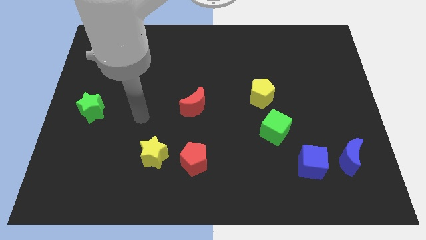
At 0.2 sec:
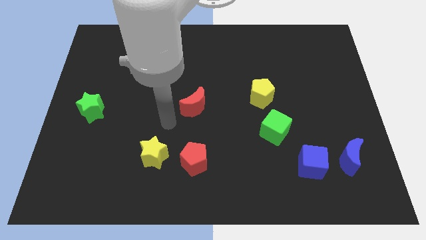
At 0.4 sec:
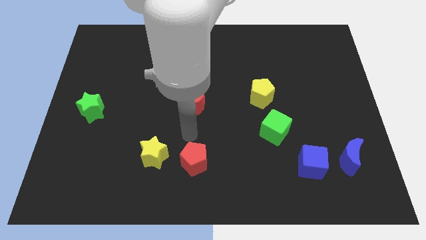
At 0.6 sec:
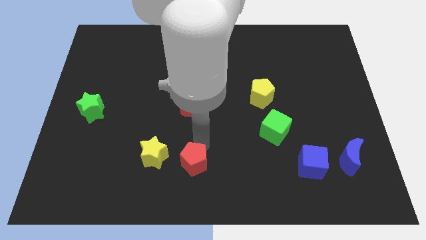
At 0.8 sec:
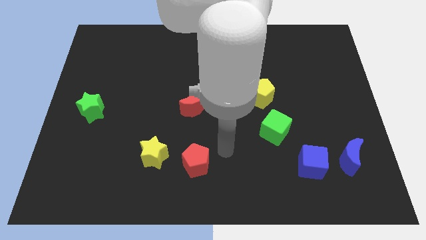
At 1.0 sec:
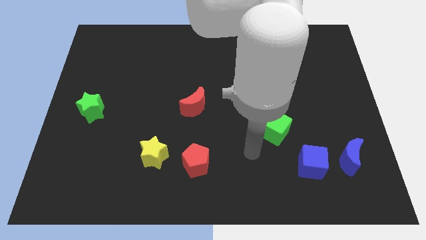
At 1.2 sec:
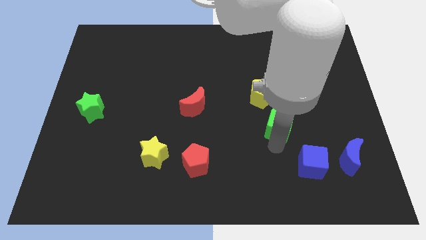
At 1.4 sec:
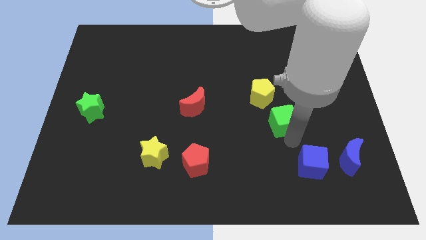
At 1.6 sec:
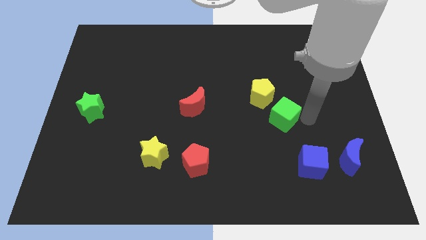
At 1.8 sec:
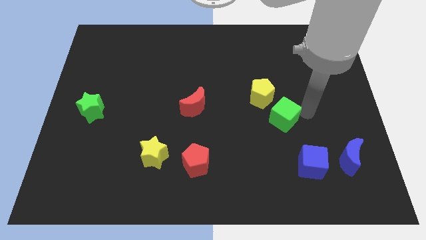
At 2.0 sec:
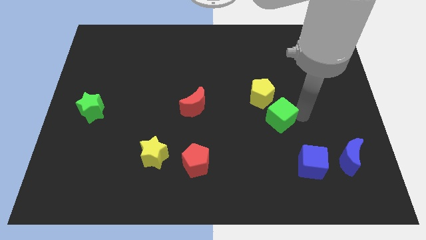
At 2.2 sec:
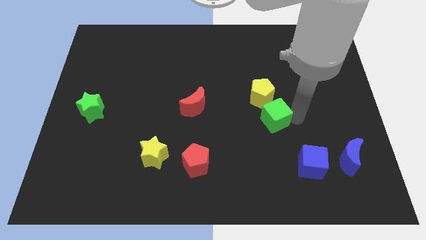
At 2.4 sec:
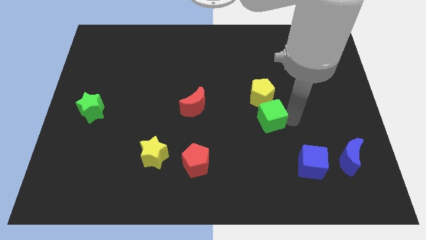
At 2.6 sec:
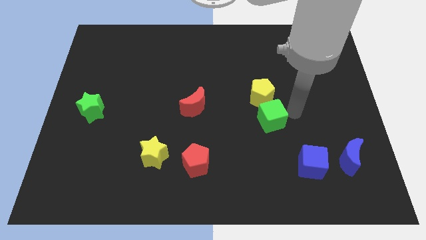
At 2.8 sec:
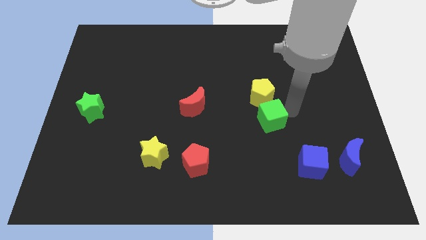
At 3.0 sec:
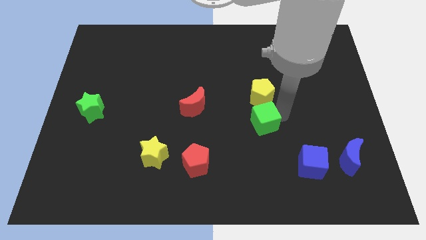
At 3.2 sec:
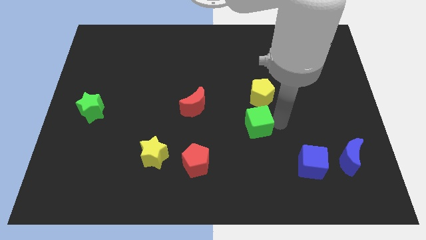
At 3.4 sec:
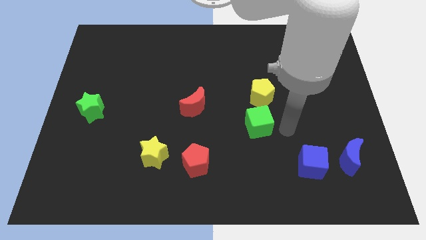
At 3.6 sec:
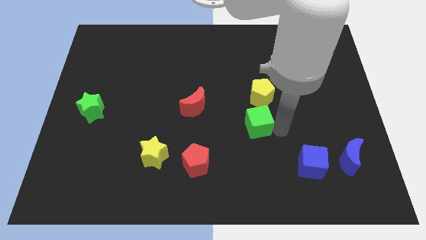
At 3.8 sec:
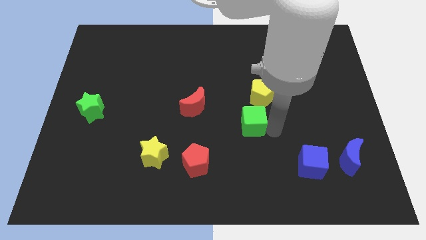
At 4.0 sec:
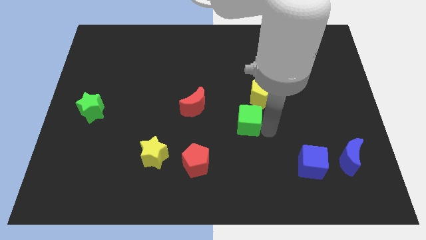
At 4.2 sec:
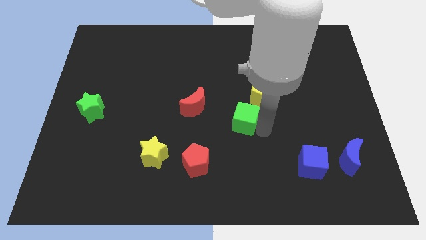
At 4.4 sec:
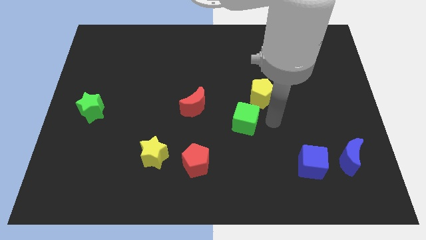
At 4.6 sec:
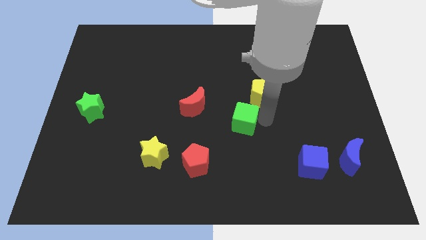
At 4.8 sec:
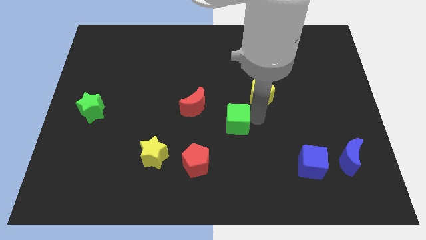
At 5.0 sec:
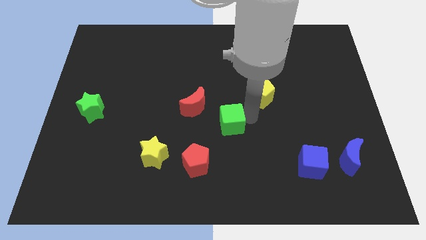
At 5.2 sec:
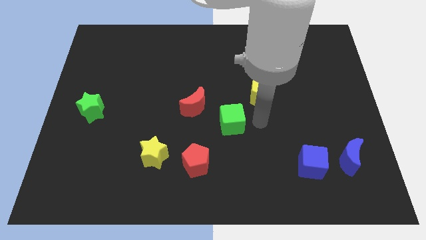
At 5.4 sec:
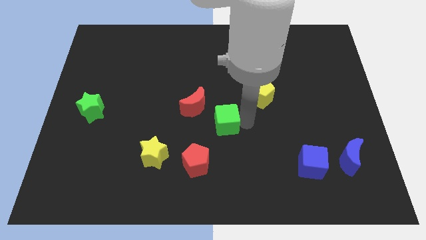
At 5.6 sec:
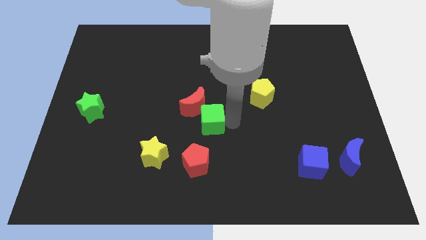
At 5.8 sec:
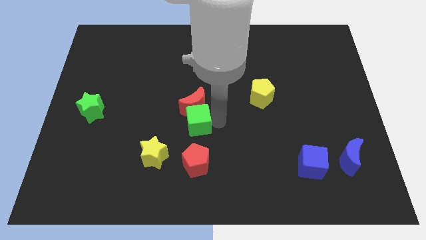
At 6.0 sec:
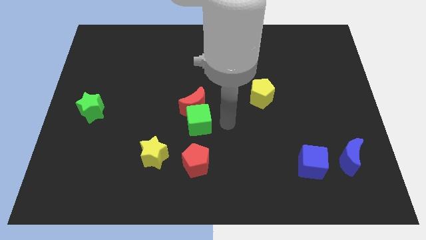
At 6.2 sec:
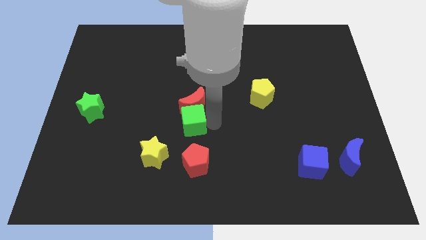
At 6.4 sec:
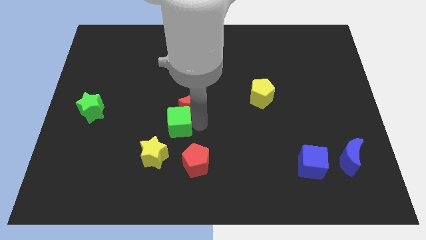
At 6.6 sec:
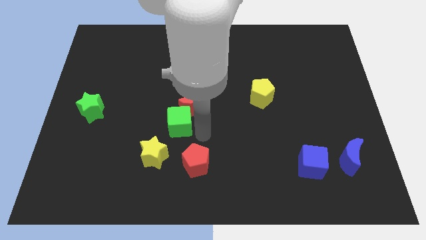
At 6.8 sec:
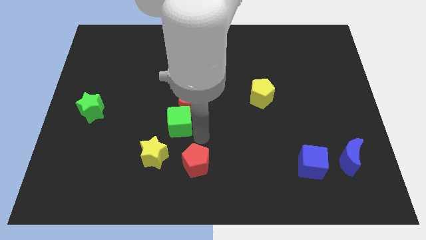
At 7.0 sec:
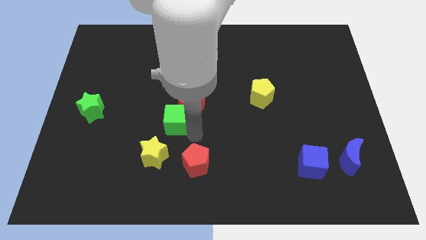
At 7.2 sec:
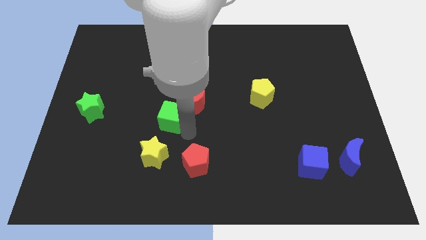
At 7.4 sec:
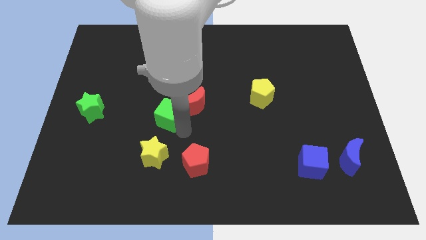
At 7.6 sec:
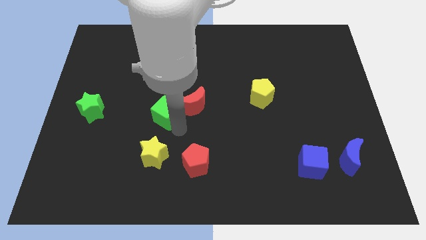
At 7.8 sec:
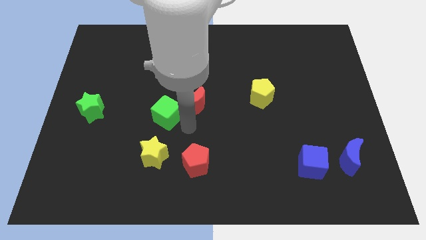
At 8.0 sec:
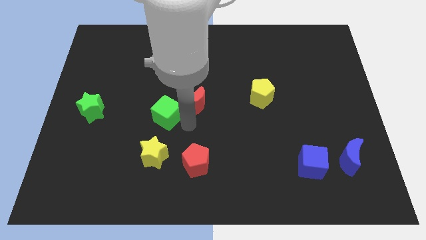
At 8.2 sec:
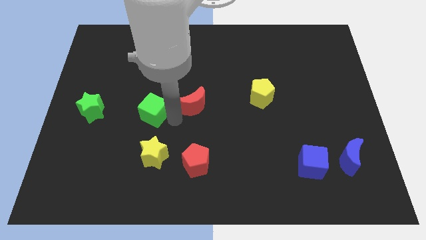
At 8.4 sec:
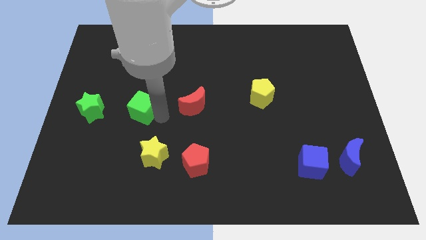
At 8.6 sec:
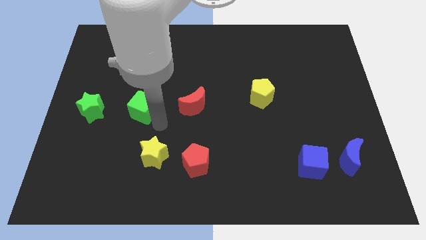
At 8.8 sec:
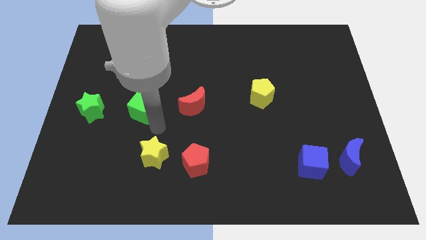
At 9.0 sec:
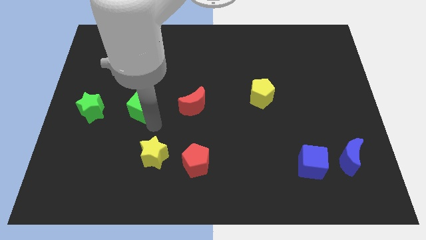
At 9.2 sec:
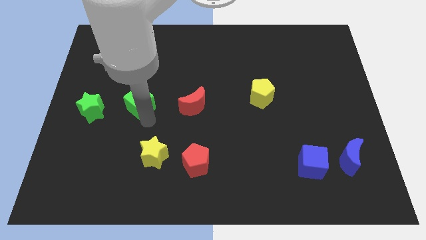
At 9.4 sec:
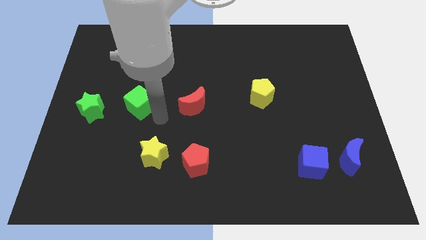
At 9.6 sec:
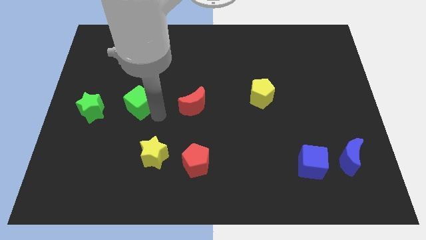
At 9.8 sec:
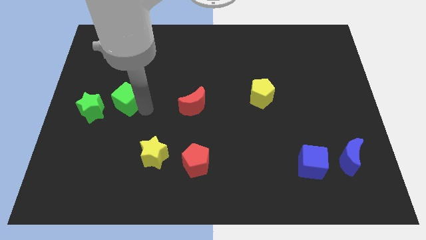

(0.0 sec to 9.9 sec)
slide the green cube to the top right side of the green star

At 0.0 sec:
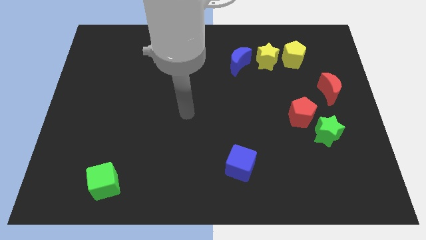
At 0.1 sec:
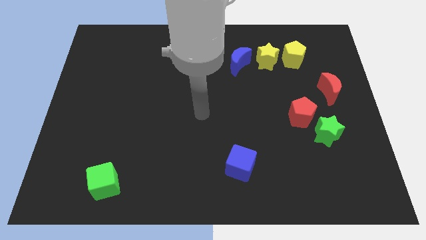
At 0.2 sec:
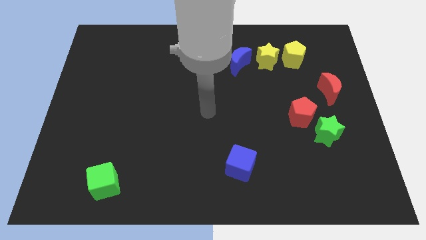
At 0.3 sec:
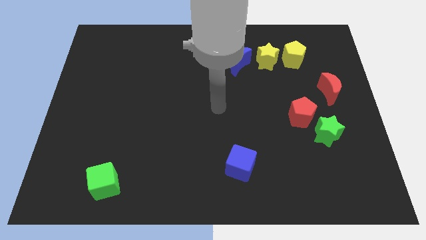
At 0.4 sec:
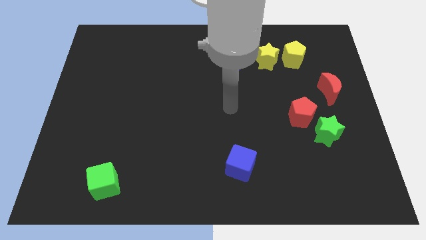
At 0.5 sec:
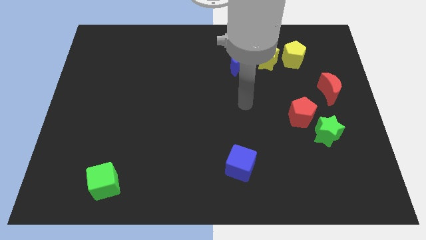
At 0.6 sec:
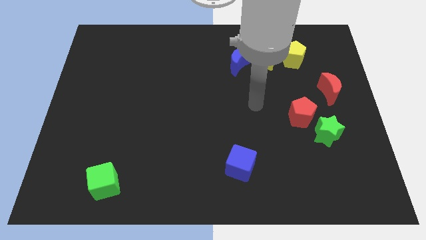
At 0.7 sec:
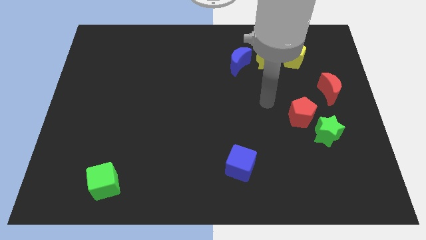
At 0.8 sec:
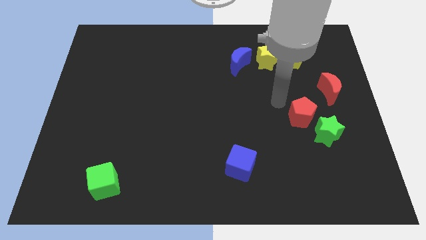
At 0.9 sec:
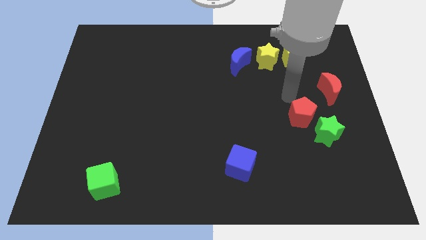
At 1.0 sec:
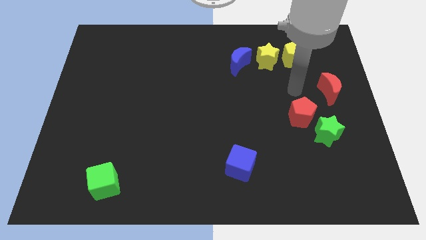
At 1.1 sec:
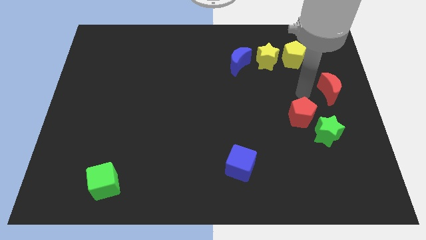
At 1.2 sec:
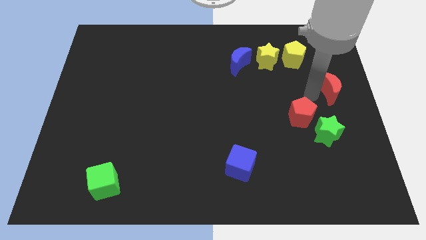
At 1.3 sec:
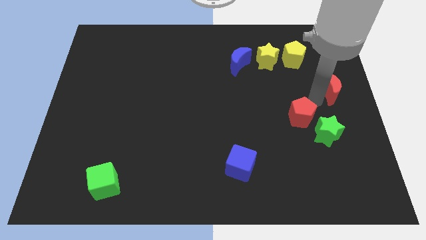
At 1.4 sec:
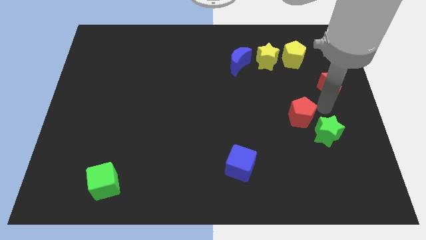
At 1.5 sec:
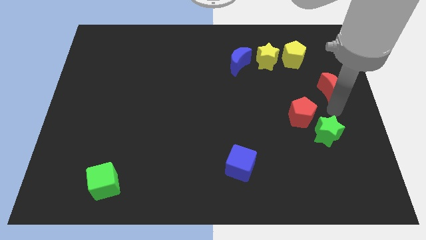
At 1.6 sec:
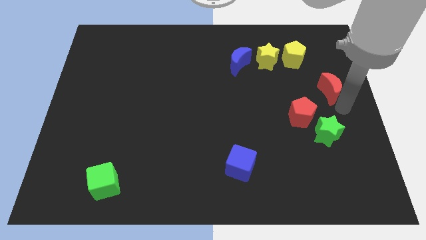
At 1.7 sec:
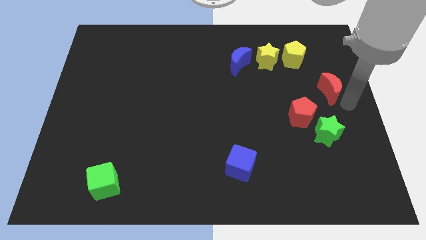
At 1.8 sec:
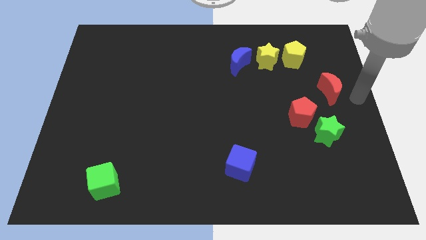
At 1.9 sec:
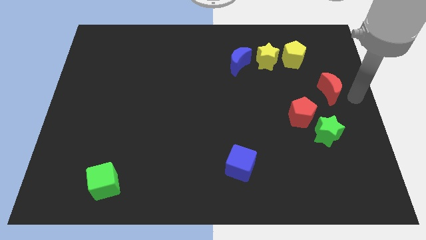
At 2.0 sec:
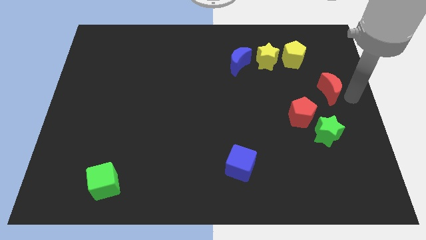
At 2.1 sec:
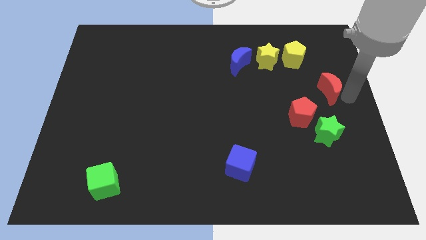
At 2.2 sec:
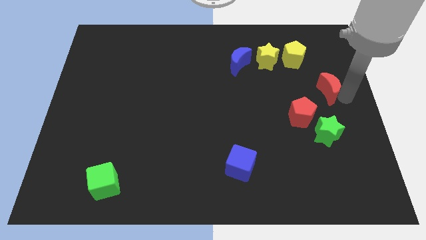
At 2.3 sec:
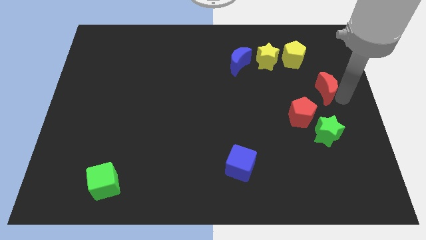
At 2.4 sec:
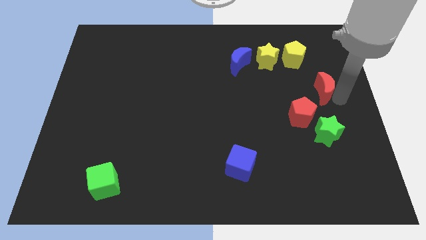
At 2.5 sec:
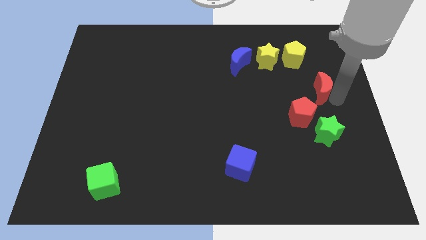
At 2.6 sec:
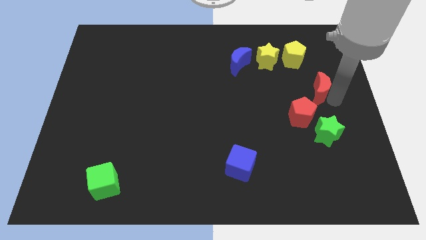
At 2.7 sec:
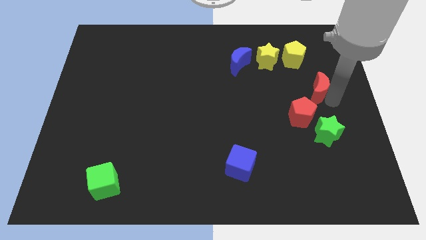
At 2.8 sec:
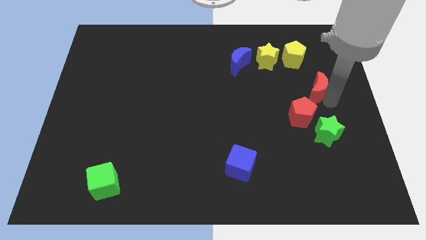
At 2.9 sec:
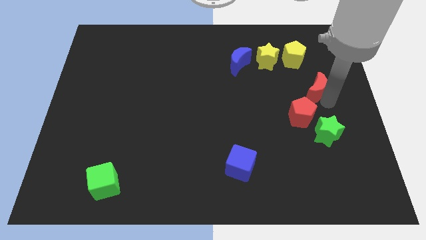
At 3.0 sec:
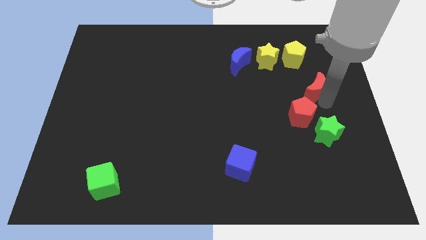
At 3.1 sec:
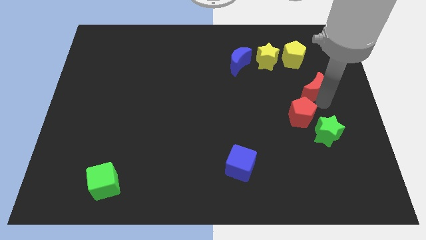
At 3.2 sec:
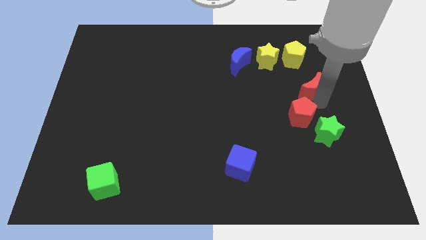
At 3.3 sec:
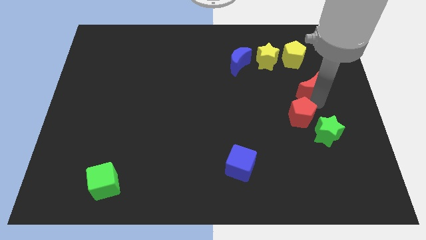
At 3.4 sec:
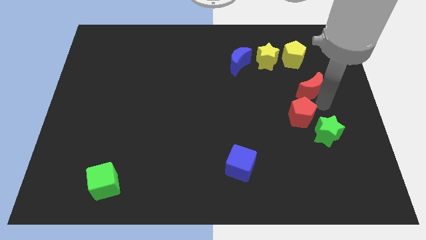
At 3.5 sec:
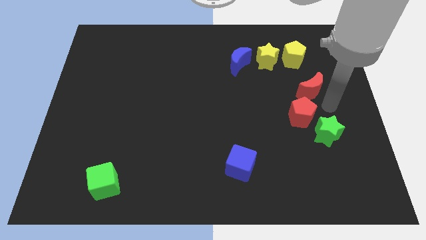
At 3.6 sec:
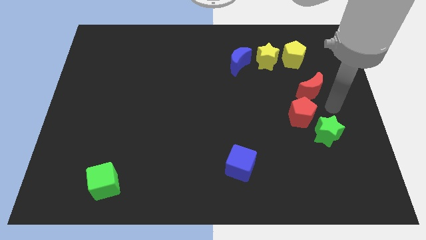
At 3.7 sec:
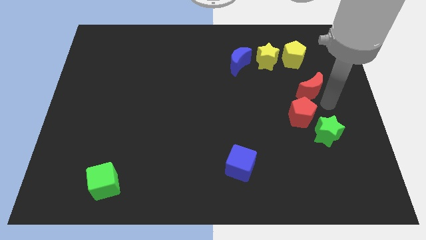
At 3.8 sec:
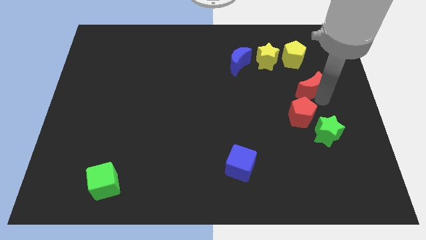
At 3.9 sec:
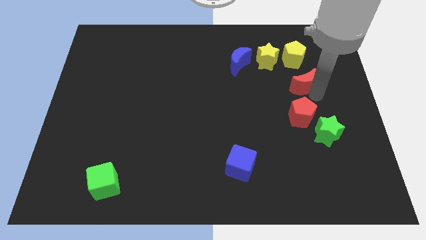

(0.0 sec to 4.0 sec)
put the red moon to the bottom right of the yellow star
